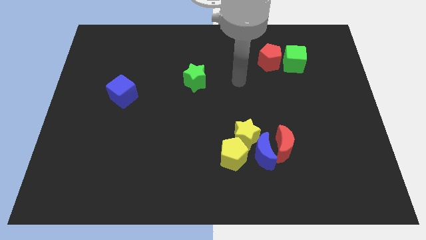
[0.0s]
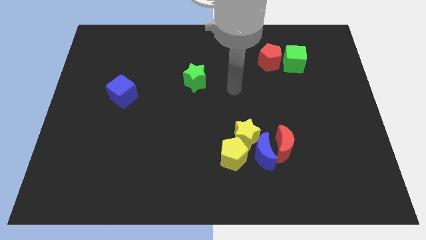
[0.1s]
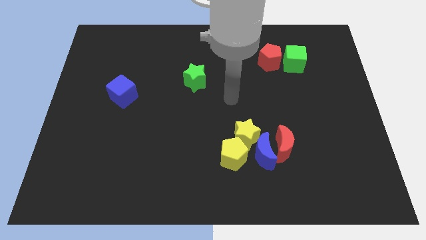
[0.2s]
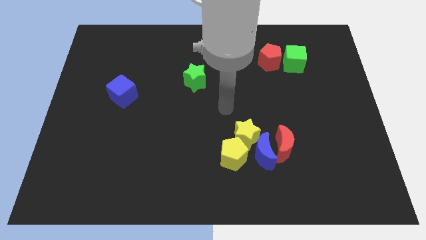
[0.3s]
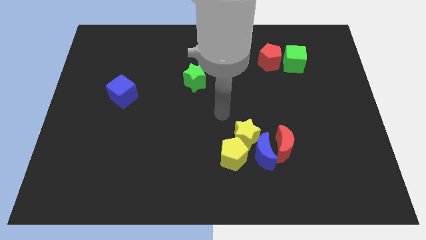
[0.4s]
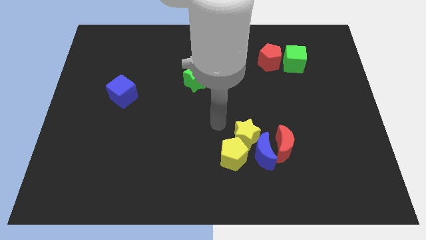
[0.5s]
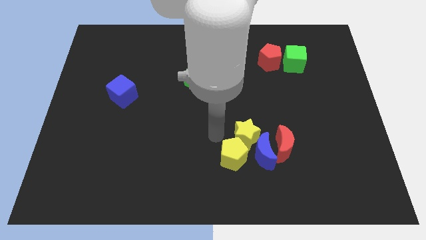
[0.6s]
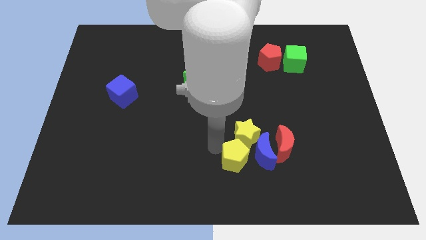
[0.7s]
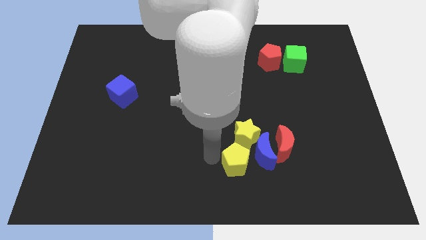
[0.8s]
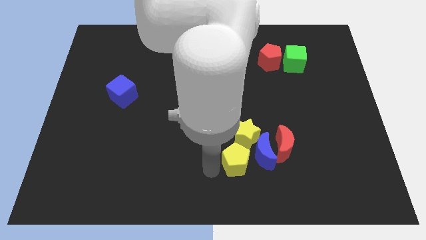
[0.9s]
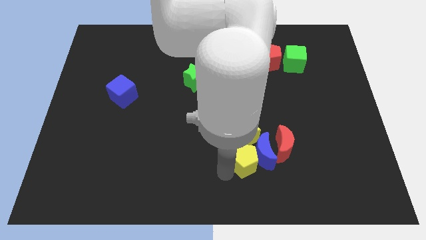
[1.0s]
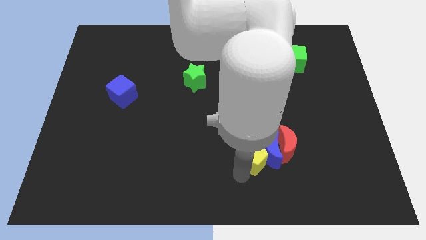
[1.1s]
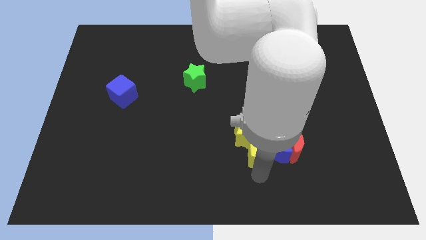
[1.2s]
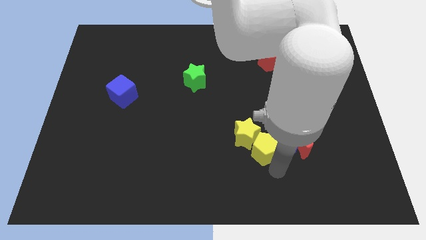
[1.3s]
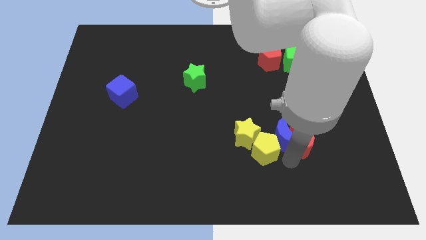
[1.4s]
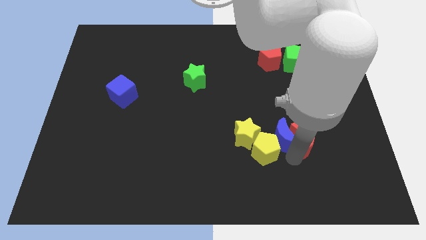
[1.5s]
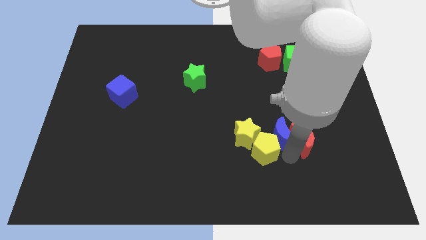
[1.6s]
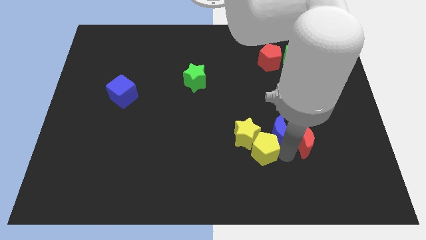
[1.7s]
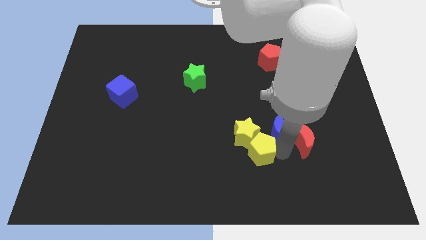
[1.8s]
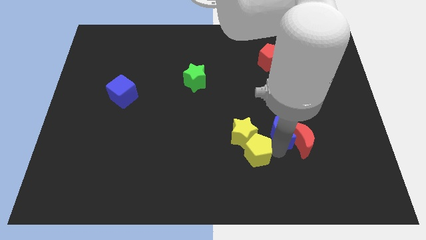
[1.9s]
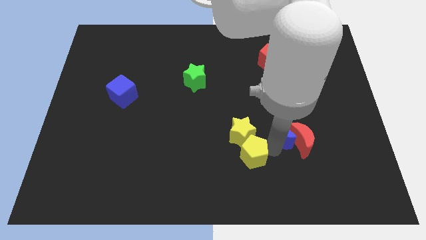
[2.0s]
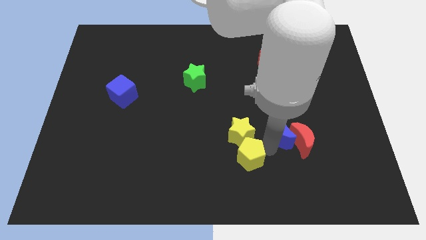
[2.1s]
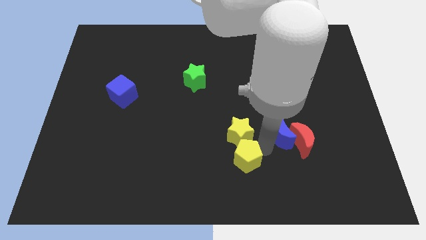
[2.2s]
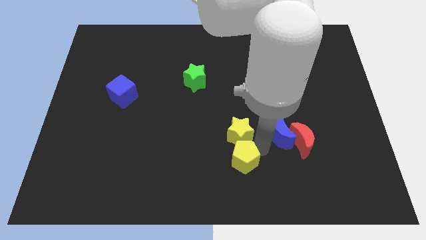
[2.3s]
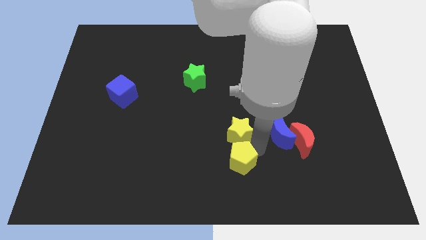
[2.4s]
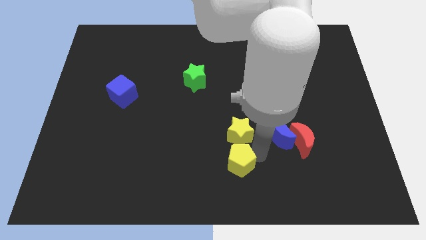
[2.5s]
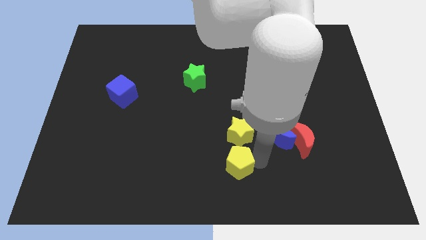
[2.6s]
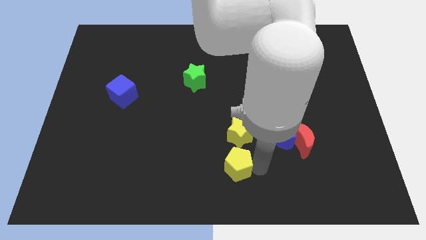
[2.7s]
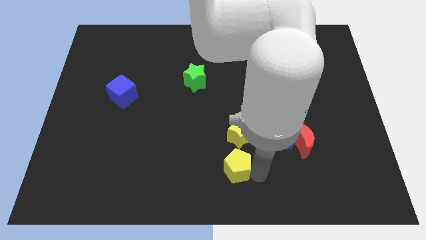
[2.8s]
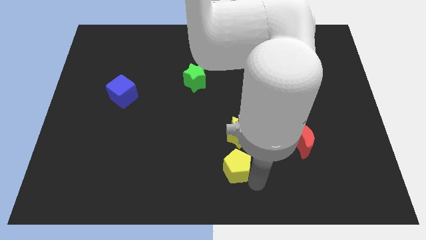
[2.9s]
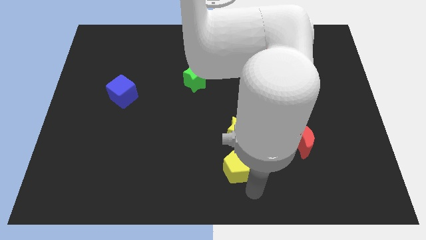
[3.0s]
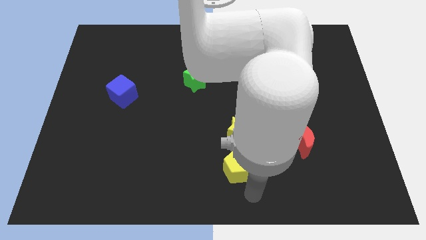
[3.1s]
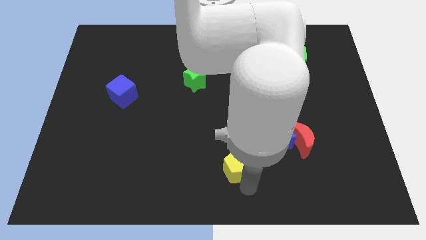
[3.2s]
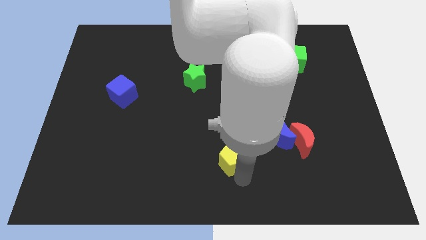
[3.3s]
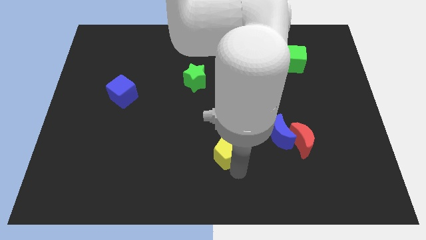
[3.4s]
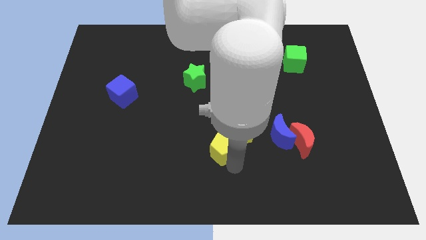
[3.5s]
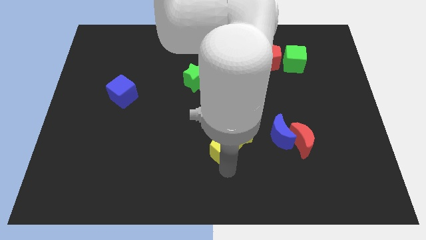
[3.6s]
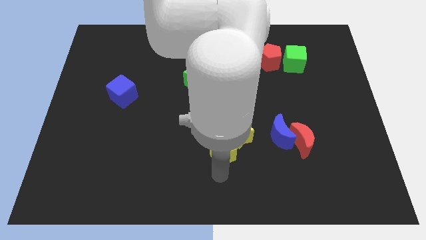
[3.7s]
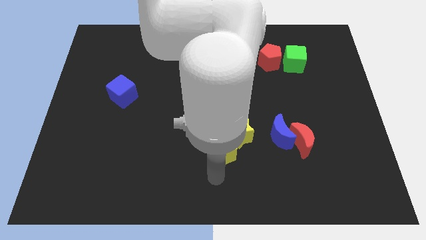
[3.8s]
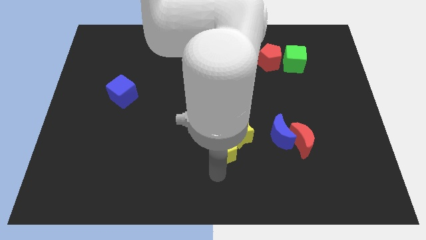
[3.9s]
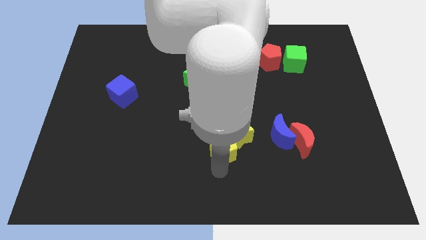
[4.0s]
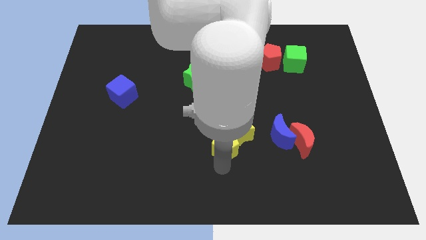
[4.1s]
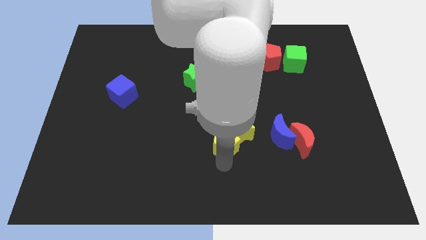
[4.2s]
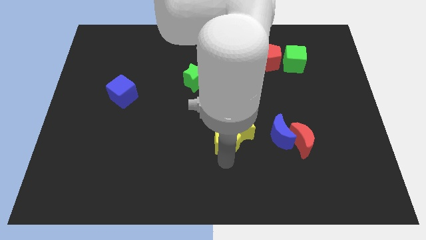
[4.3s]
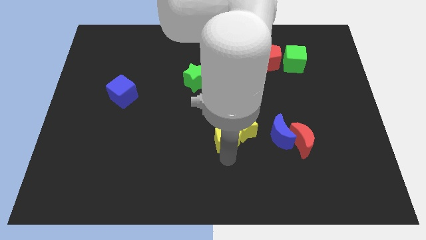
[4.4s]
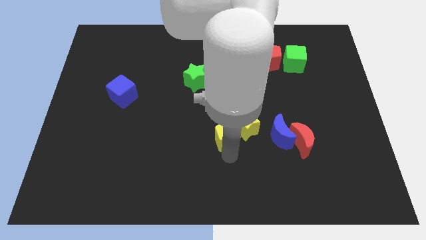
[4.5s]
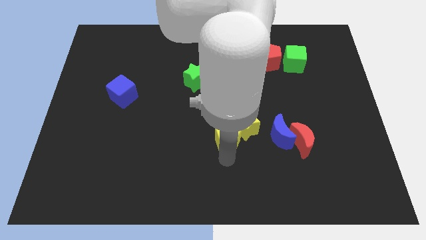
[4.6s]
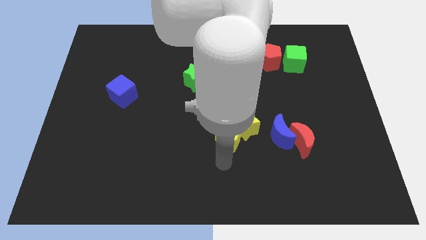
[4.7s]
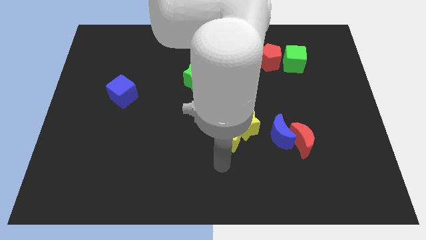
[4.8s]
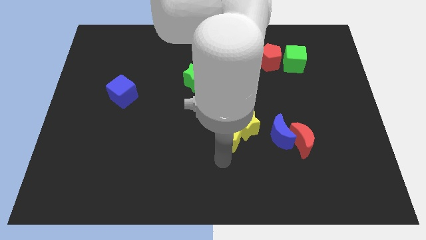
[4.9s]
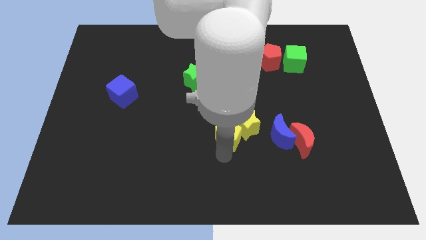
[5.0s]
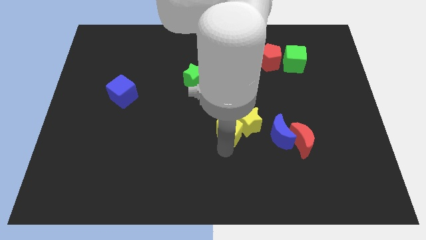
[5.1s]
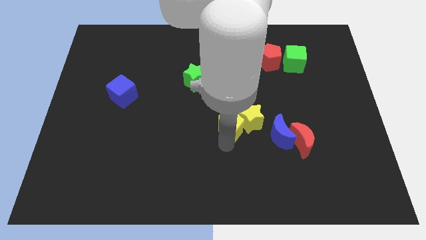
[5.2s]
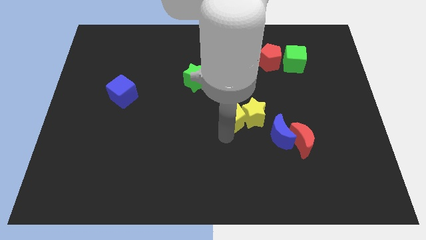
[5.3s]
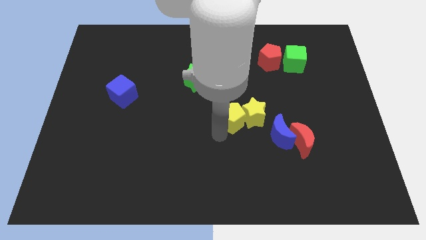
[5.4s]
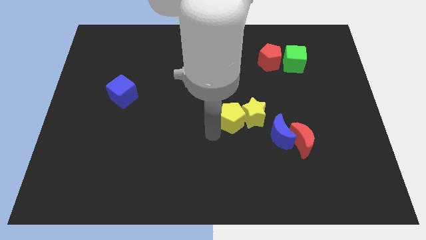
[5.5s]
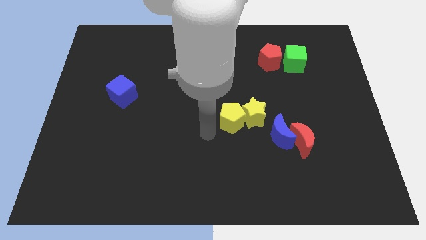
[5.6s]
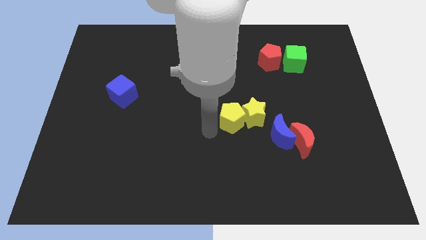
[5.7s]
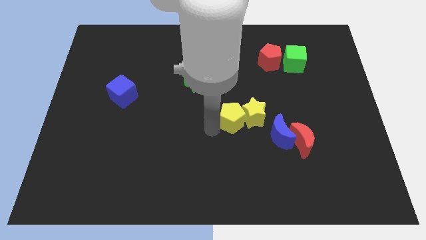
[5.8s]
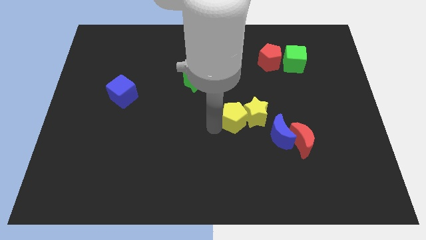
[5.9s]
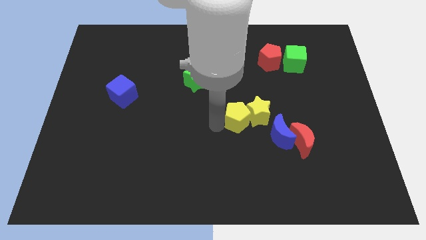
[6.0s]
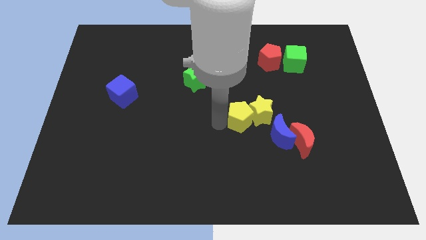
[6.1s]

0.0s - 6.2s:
push the yellow pentagon diagonally up and to the right slightly

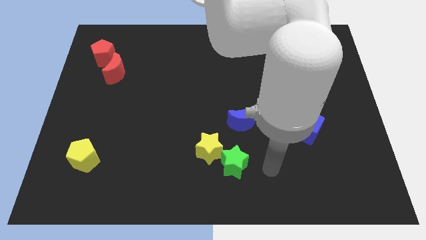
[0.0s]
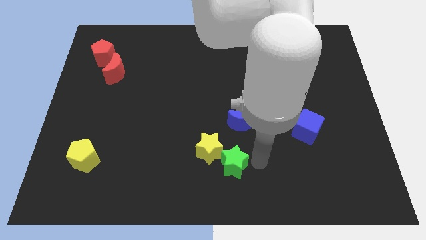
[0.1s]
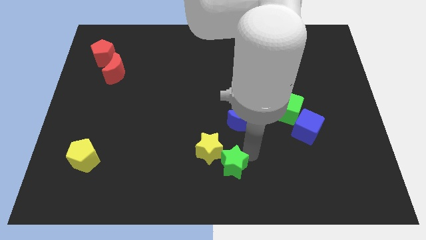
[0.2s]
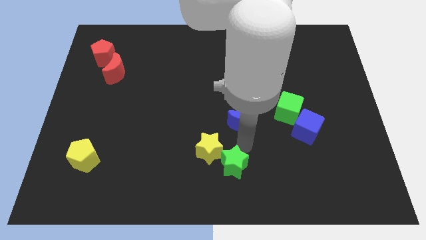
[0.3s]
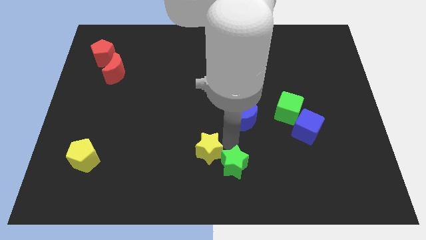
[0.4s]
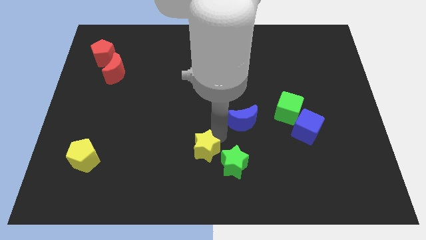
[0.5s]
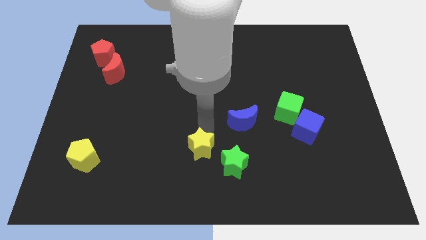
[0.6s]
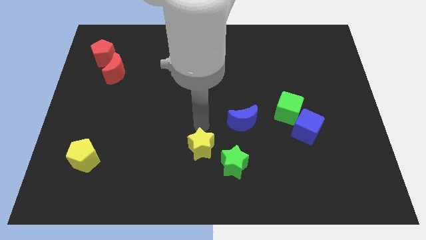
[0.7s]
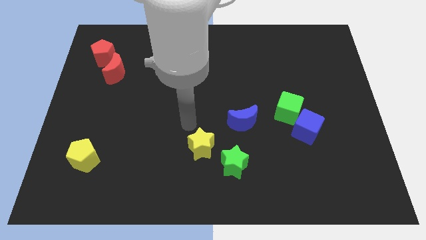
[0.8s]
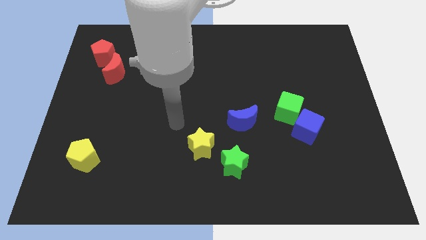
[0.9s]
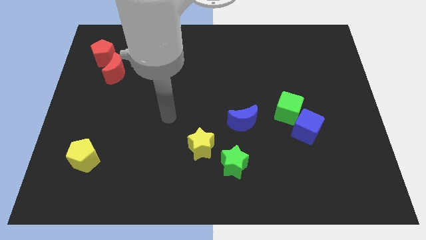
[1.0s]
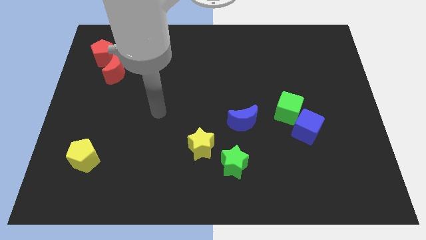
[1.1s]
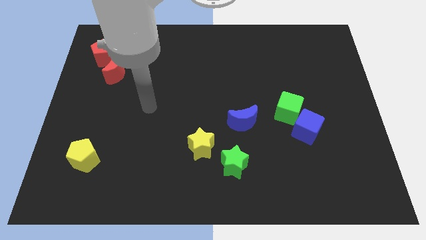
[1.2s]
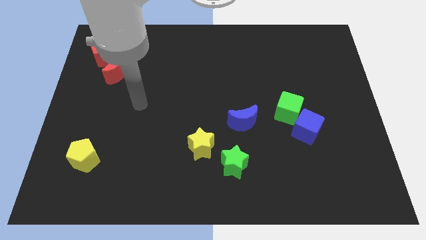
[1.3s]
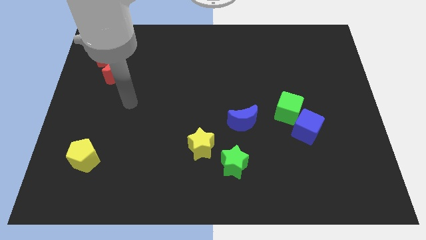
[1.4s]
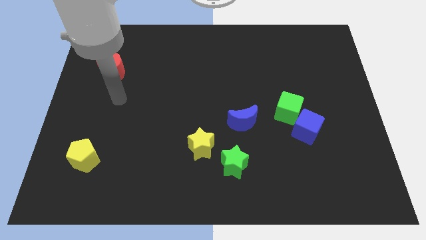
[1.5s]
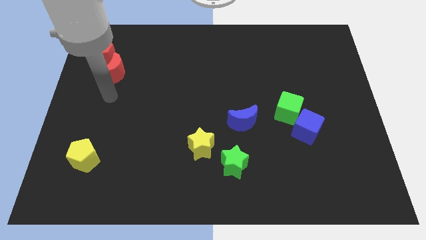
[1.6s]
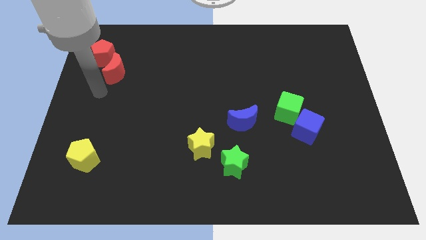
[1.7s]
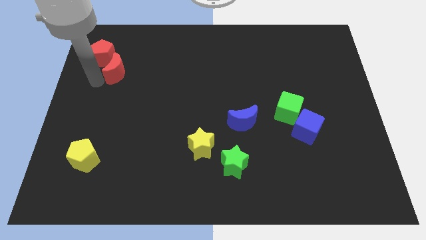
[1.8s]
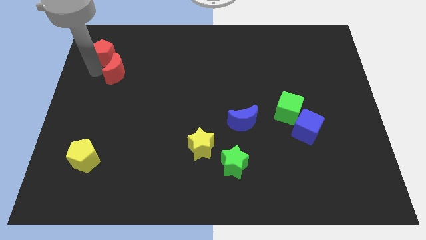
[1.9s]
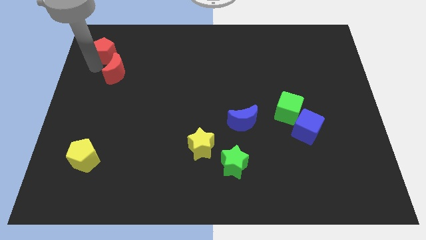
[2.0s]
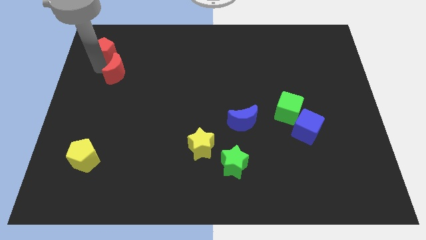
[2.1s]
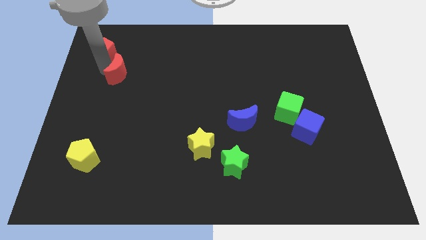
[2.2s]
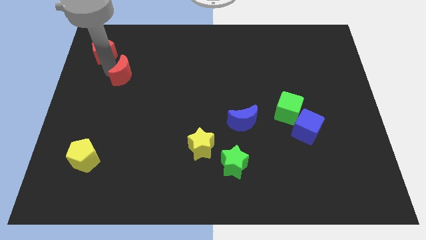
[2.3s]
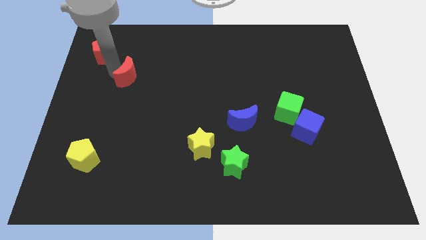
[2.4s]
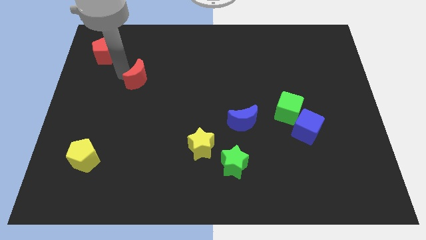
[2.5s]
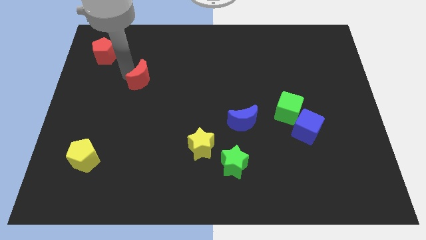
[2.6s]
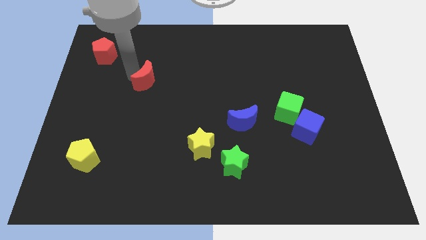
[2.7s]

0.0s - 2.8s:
slightly push the red moon down and then right
